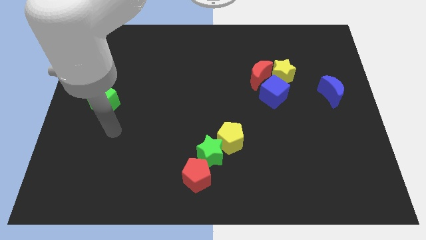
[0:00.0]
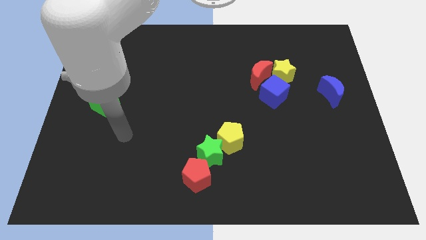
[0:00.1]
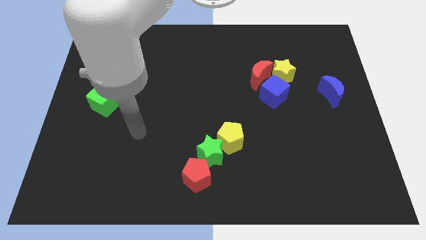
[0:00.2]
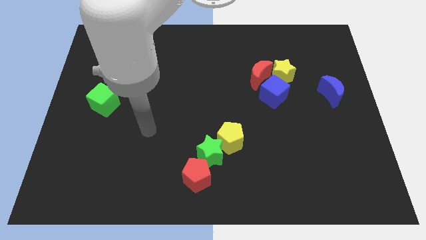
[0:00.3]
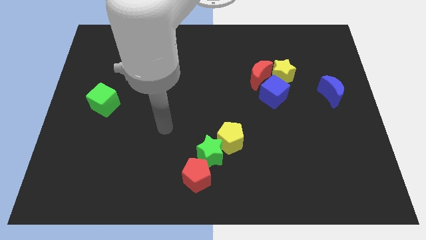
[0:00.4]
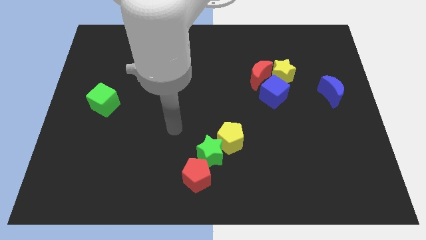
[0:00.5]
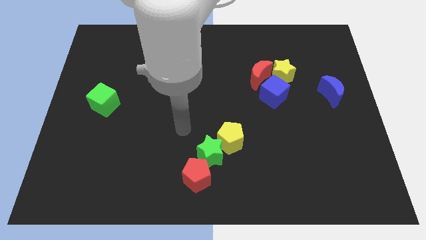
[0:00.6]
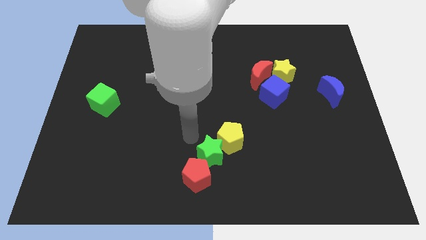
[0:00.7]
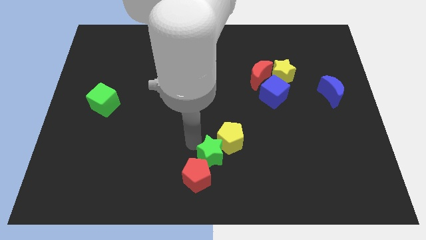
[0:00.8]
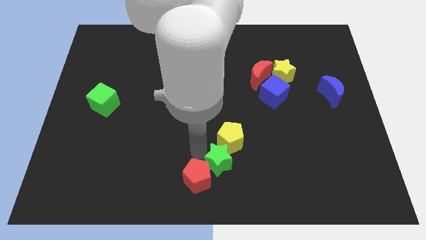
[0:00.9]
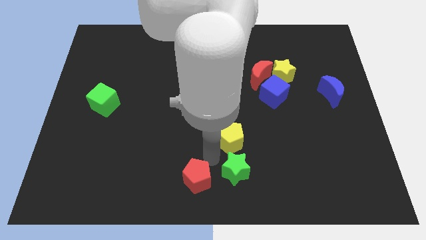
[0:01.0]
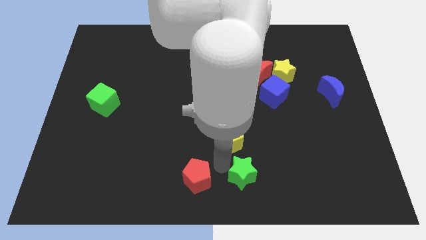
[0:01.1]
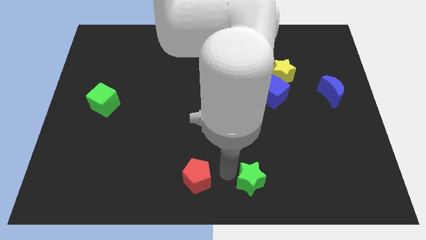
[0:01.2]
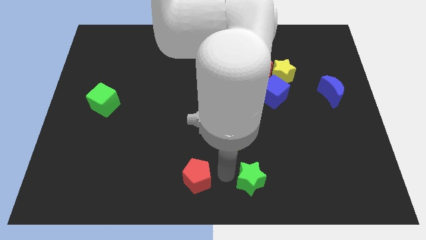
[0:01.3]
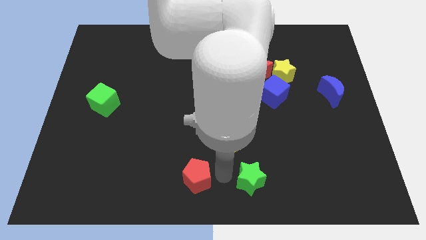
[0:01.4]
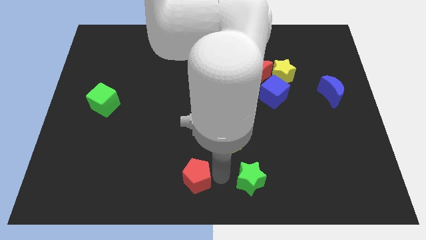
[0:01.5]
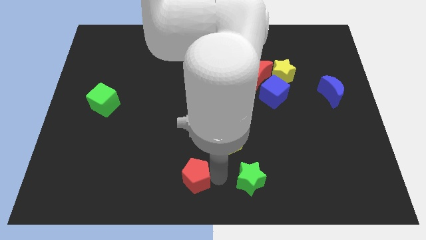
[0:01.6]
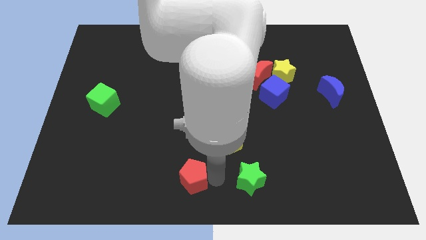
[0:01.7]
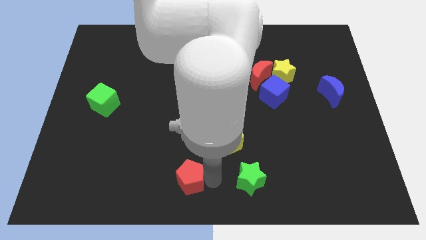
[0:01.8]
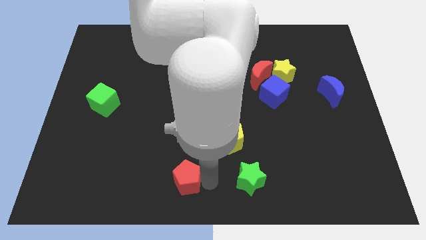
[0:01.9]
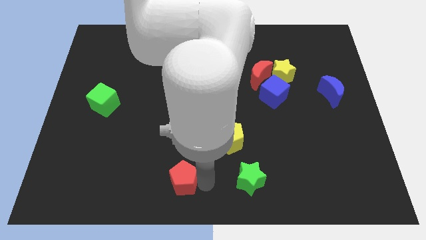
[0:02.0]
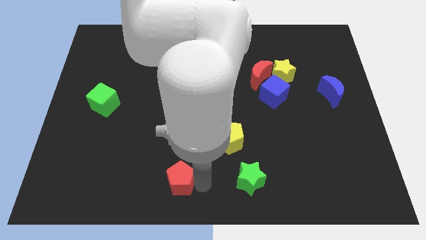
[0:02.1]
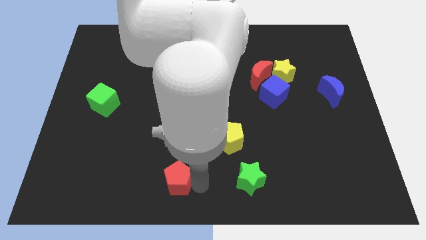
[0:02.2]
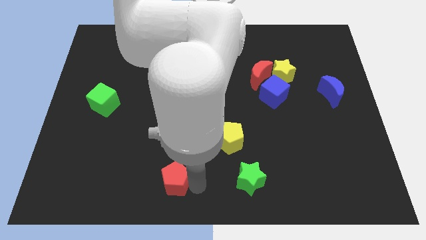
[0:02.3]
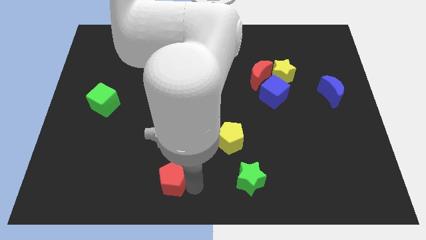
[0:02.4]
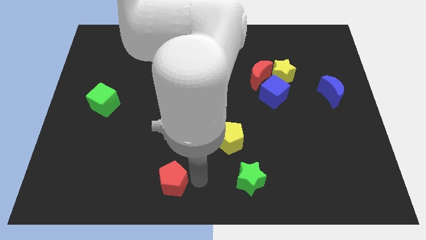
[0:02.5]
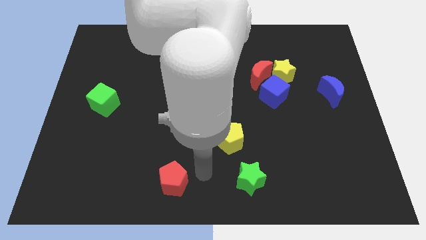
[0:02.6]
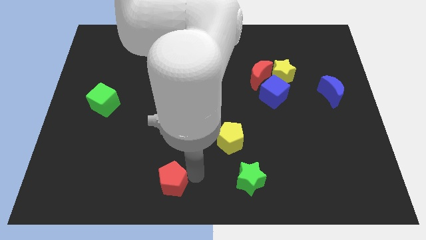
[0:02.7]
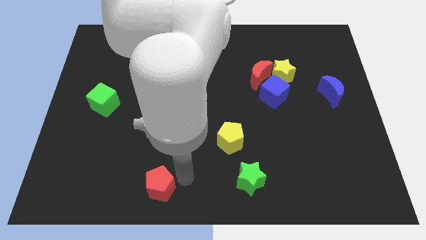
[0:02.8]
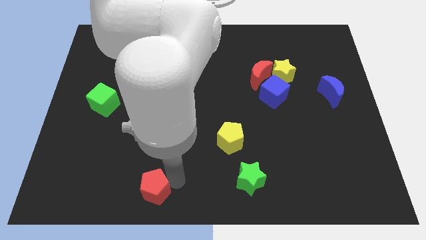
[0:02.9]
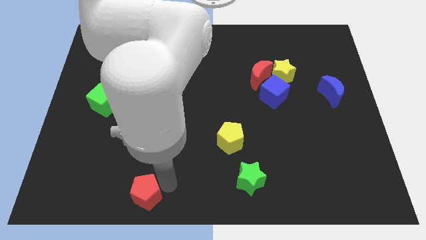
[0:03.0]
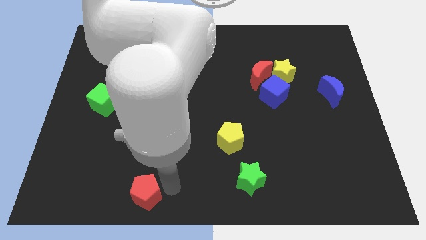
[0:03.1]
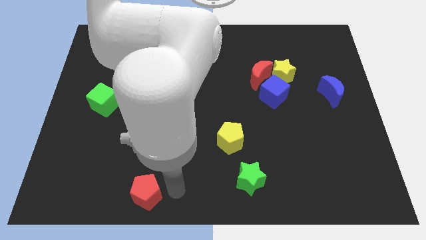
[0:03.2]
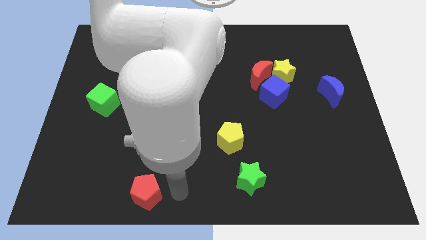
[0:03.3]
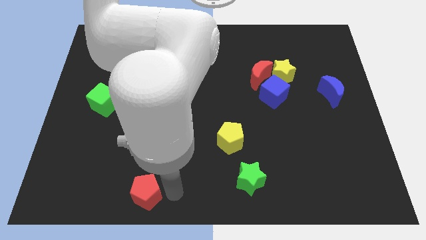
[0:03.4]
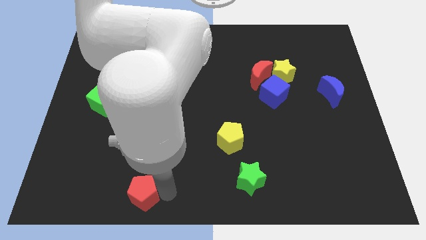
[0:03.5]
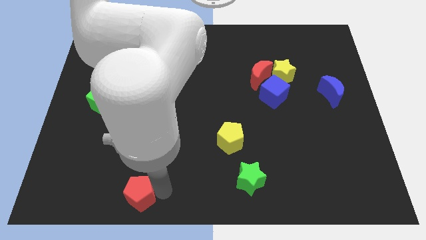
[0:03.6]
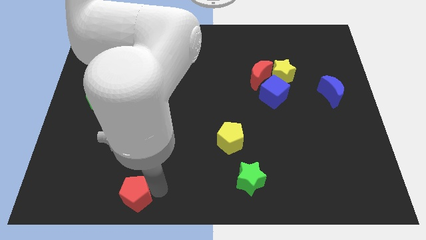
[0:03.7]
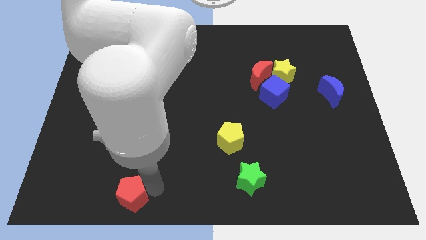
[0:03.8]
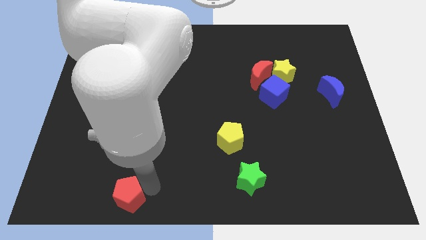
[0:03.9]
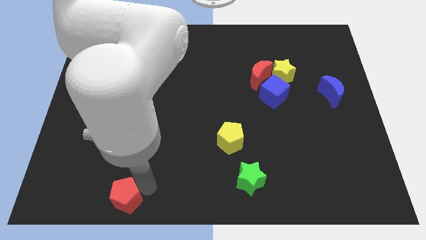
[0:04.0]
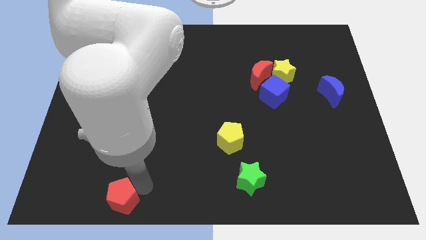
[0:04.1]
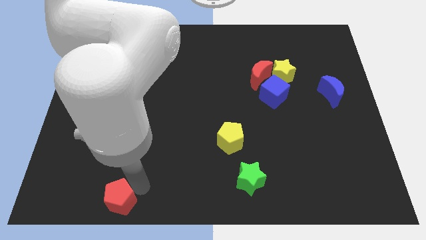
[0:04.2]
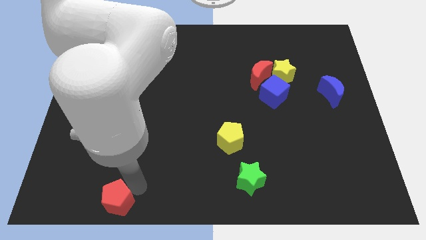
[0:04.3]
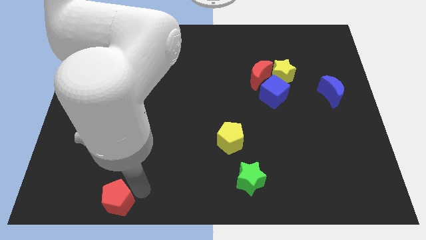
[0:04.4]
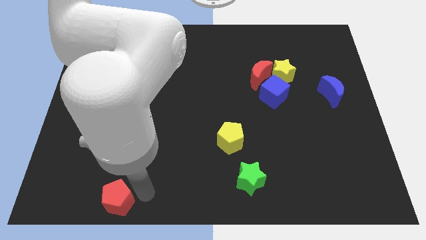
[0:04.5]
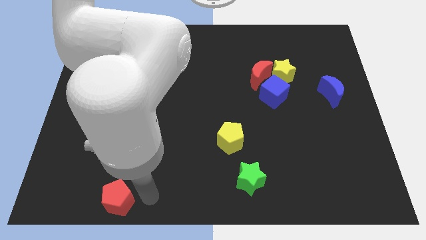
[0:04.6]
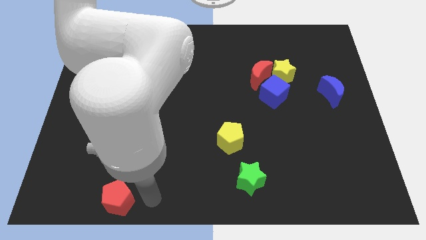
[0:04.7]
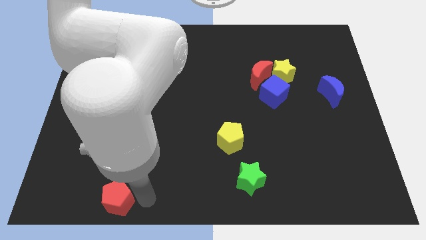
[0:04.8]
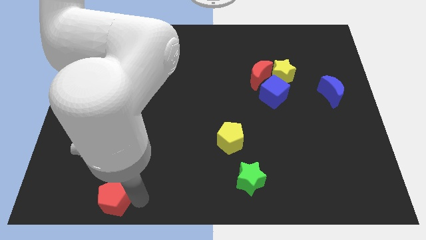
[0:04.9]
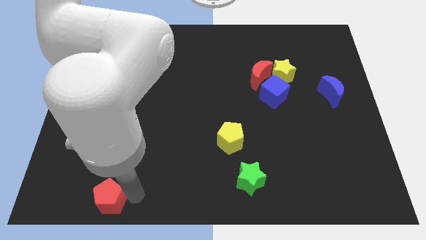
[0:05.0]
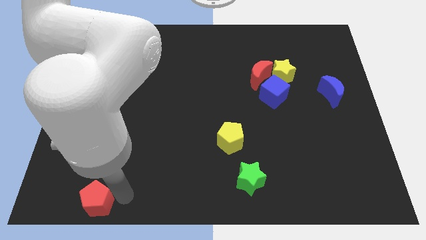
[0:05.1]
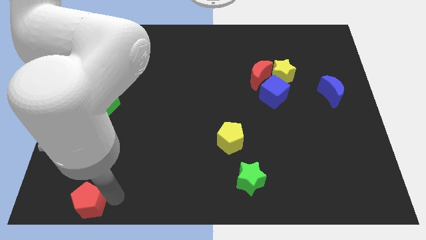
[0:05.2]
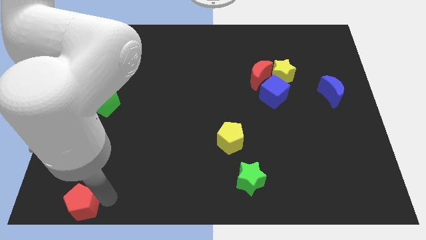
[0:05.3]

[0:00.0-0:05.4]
put the red pentagon to the lower left corner

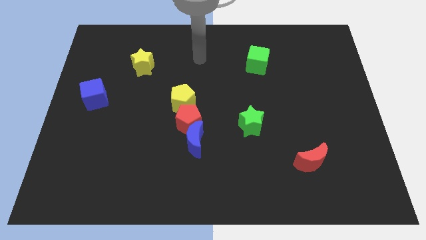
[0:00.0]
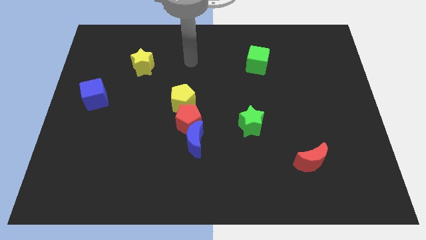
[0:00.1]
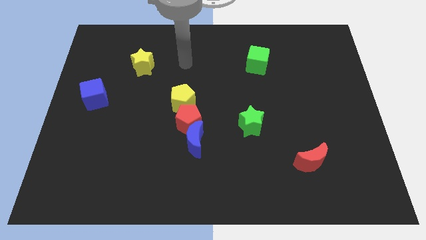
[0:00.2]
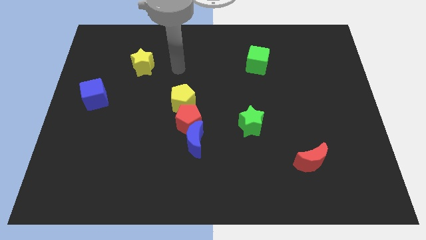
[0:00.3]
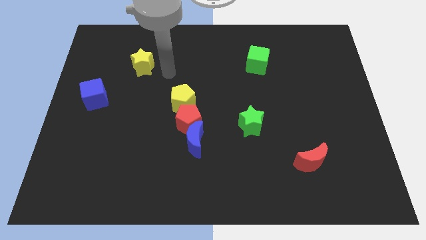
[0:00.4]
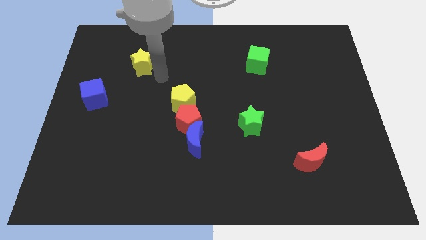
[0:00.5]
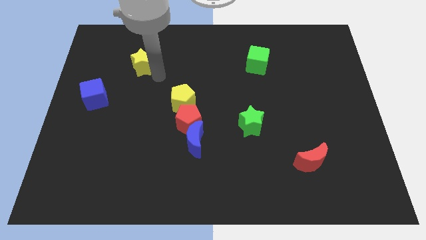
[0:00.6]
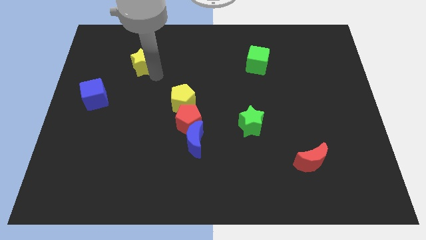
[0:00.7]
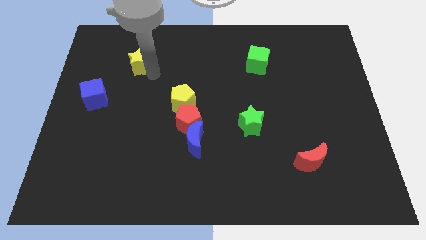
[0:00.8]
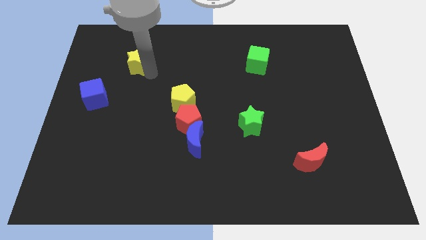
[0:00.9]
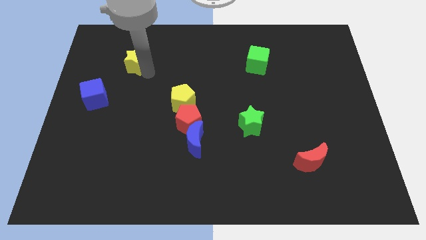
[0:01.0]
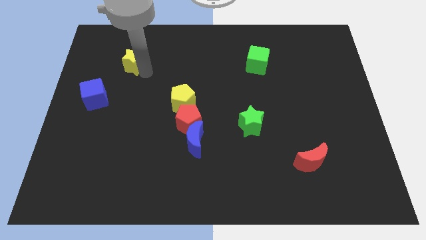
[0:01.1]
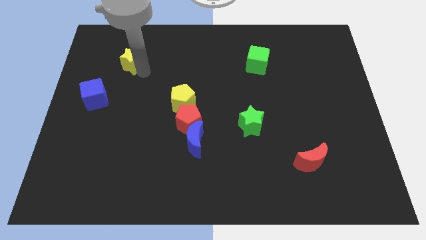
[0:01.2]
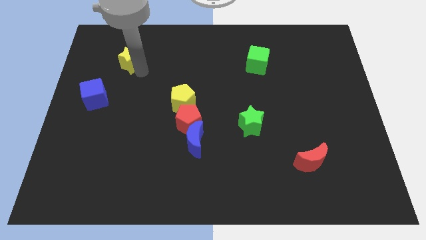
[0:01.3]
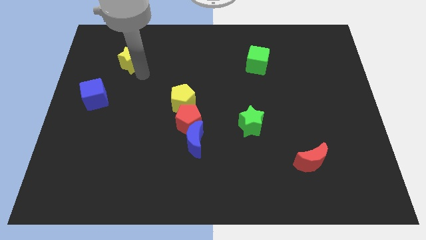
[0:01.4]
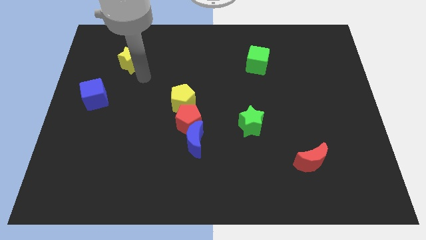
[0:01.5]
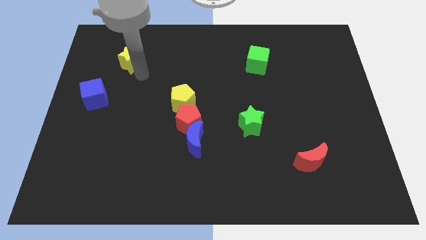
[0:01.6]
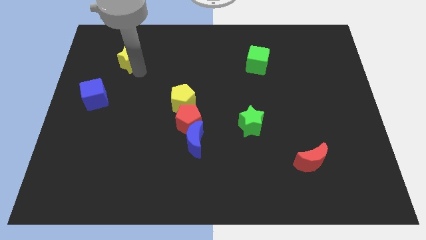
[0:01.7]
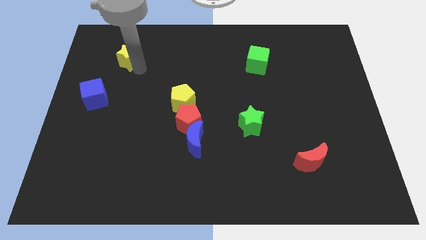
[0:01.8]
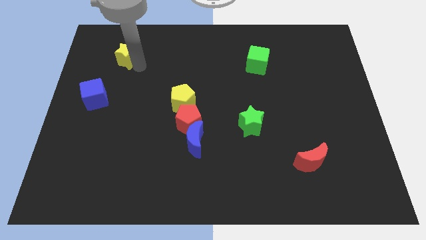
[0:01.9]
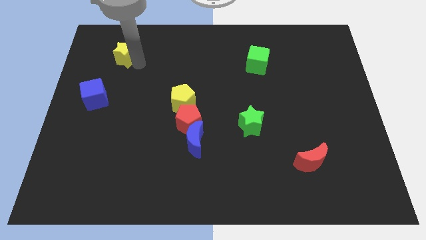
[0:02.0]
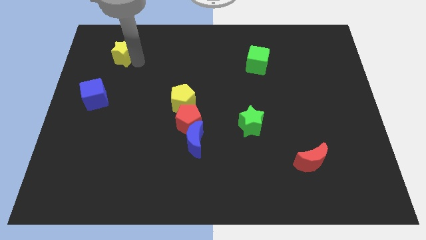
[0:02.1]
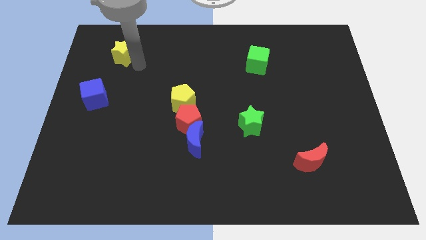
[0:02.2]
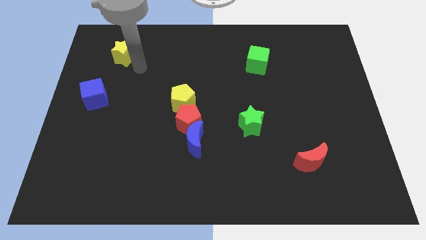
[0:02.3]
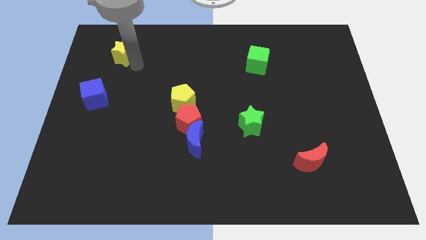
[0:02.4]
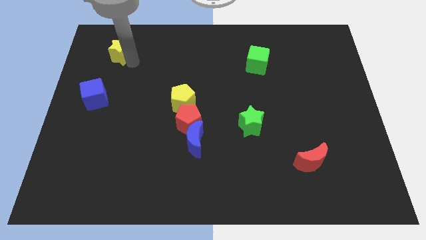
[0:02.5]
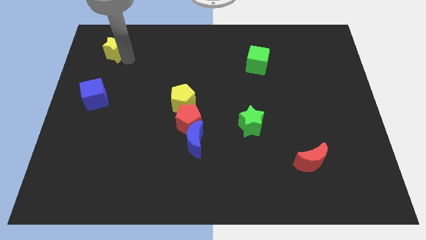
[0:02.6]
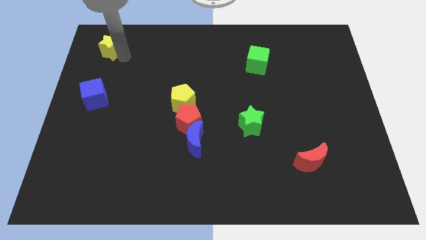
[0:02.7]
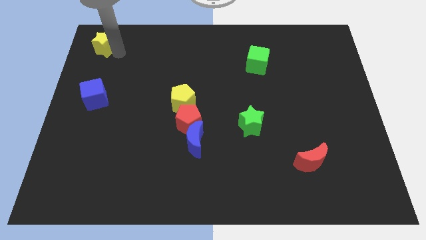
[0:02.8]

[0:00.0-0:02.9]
move the yellow star to the top left

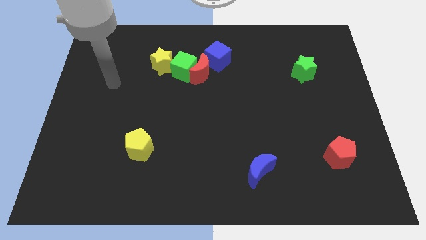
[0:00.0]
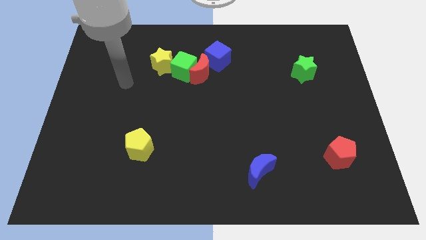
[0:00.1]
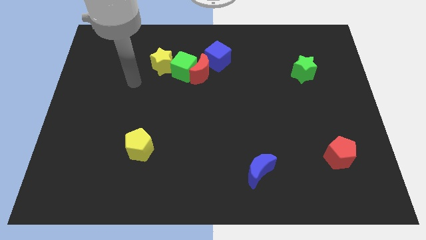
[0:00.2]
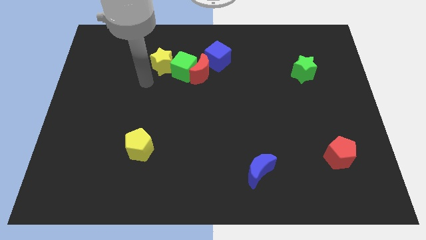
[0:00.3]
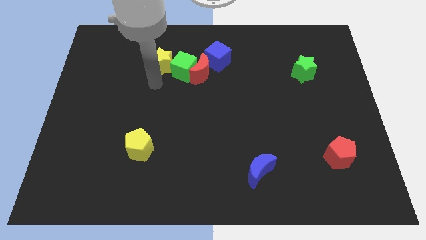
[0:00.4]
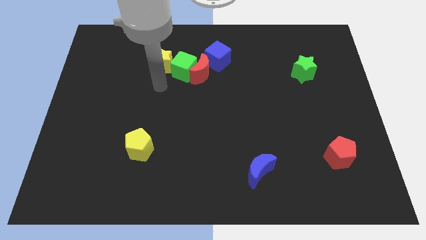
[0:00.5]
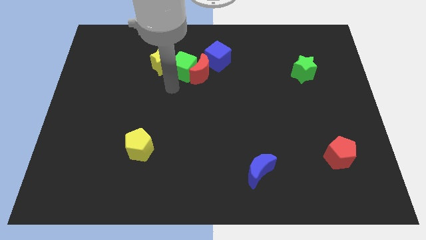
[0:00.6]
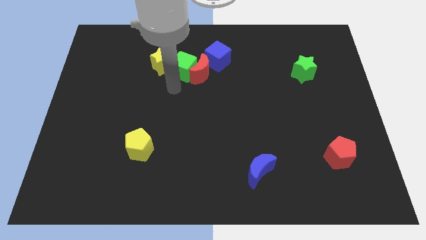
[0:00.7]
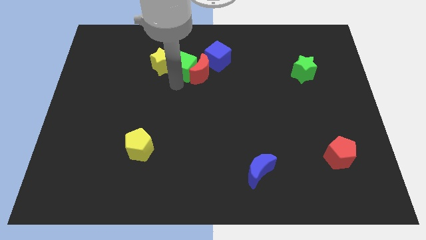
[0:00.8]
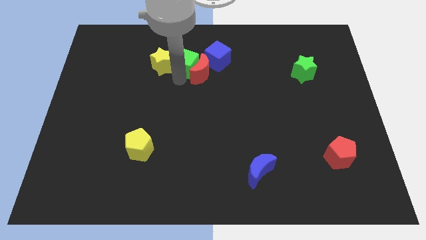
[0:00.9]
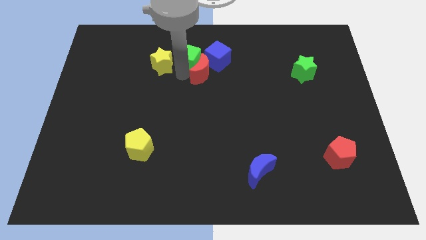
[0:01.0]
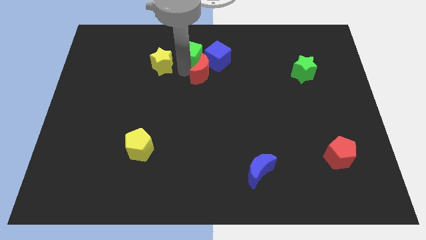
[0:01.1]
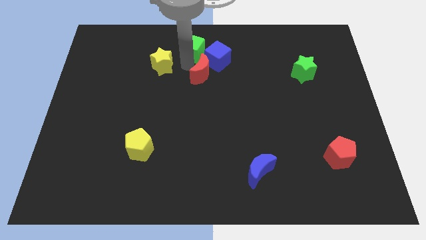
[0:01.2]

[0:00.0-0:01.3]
put the green cube to the towards your base
